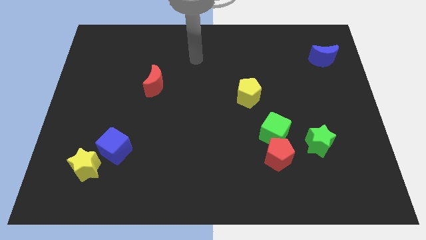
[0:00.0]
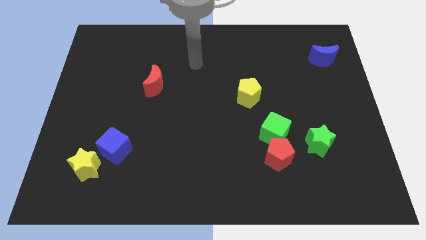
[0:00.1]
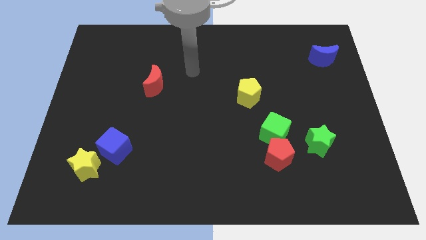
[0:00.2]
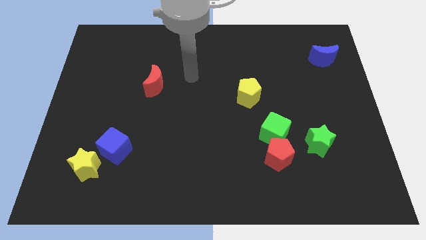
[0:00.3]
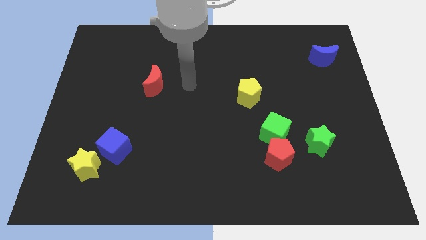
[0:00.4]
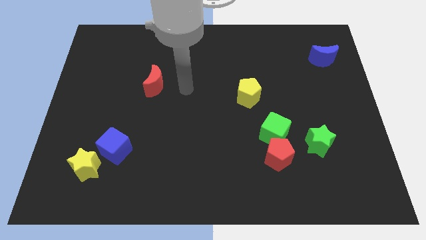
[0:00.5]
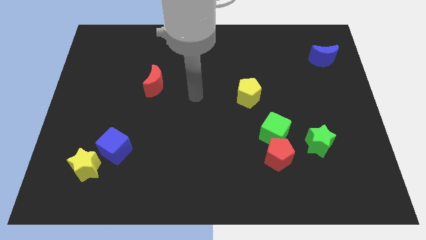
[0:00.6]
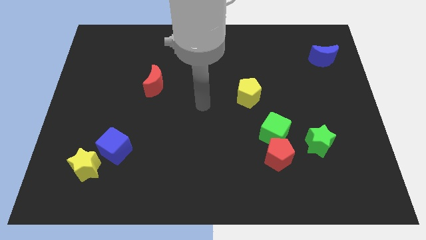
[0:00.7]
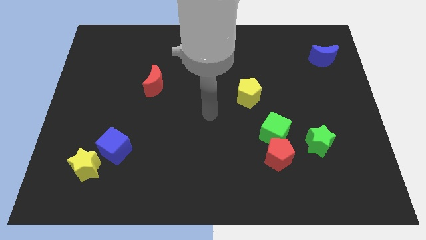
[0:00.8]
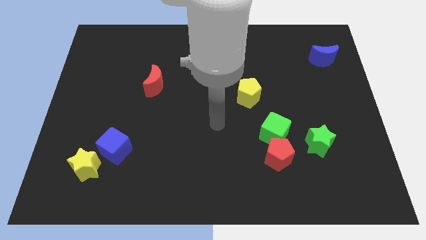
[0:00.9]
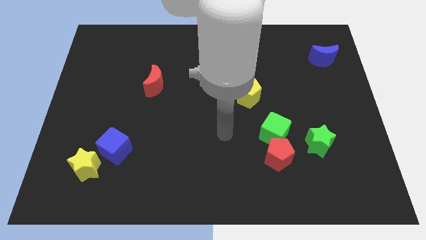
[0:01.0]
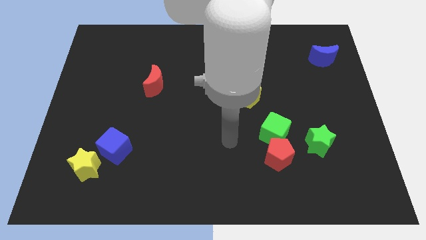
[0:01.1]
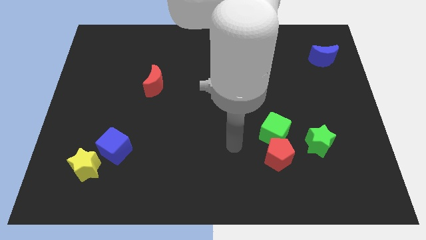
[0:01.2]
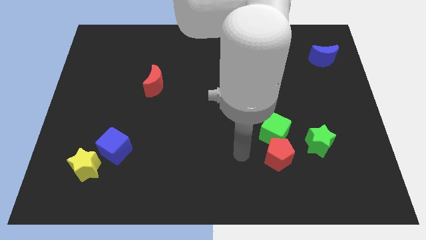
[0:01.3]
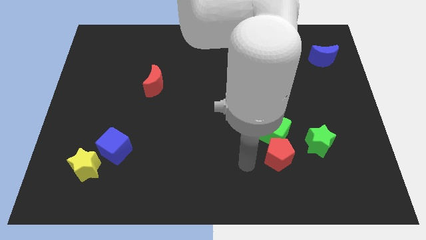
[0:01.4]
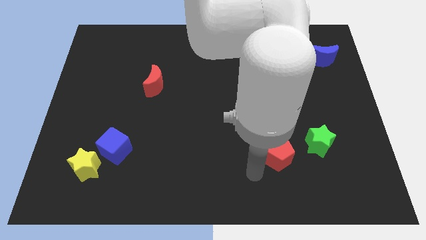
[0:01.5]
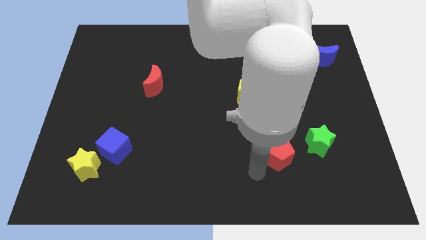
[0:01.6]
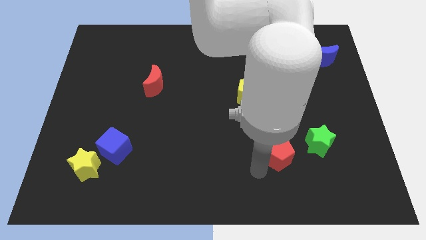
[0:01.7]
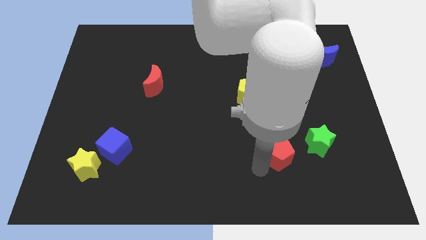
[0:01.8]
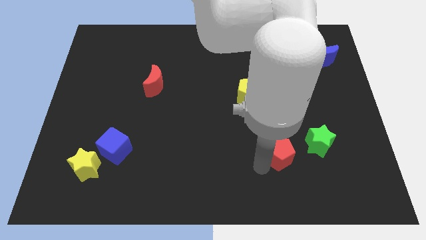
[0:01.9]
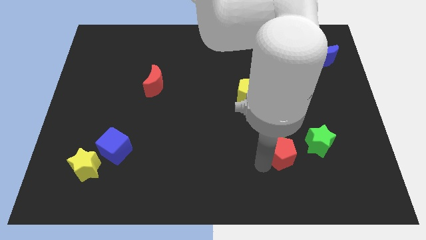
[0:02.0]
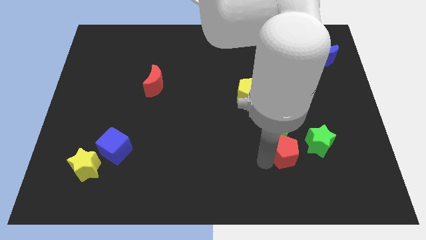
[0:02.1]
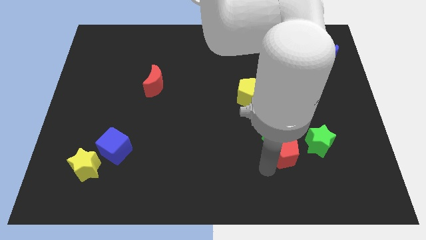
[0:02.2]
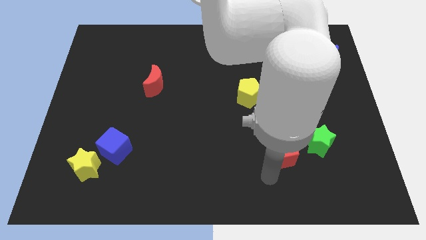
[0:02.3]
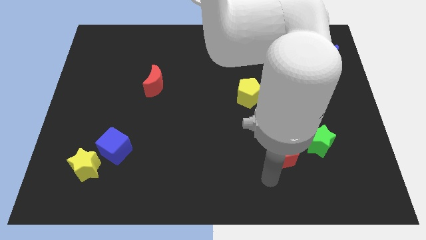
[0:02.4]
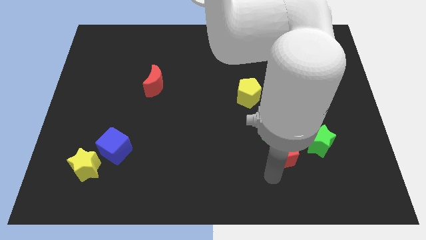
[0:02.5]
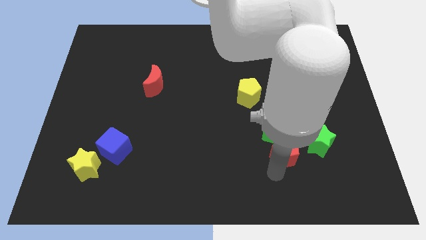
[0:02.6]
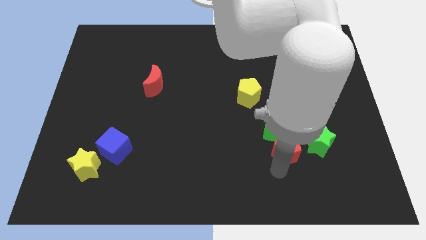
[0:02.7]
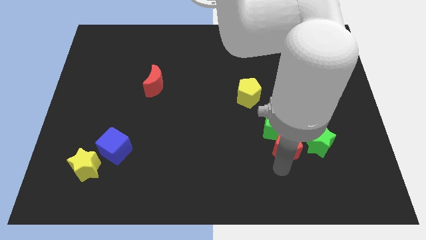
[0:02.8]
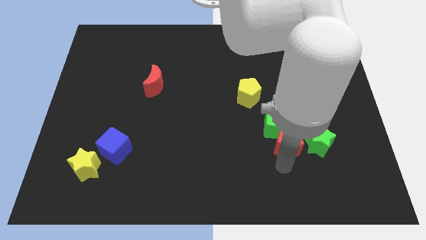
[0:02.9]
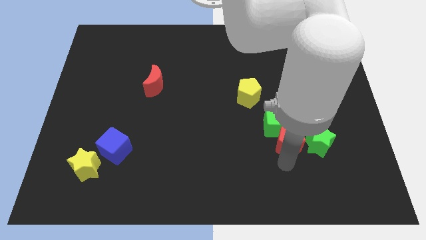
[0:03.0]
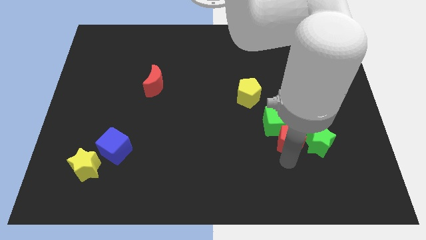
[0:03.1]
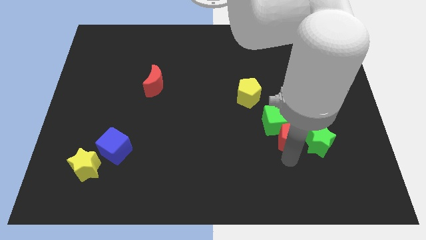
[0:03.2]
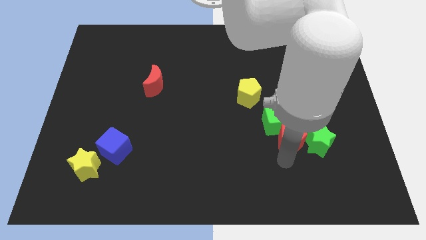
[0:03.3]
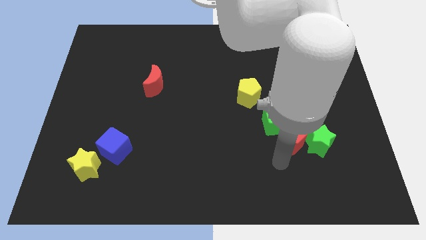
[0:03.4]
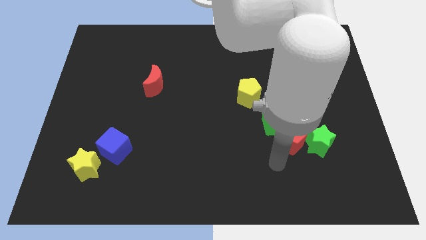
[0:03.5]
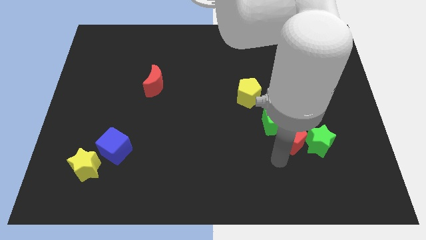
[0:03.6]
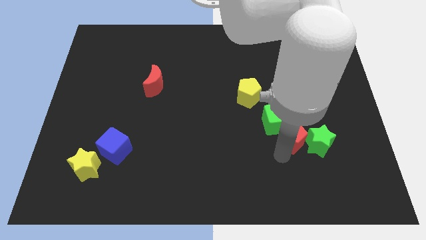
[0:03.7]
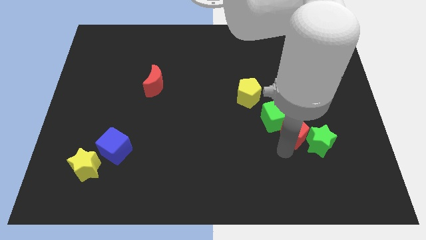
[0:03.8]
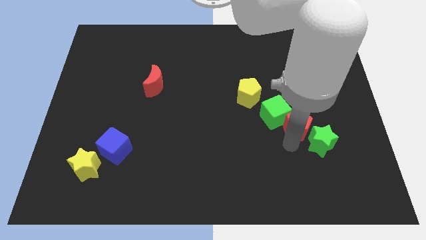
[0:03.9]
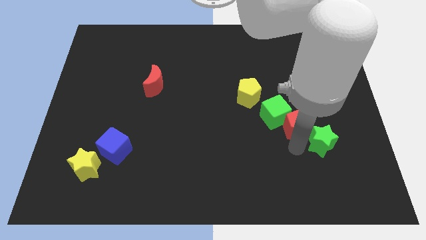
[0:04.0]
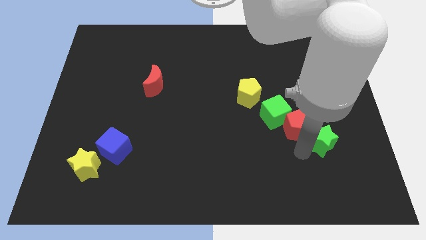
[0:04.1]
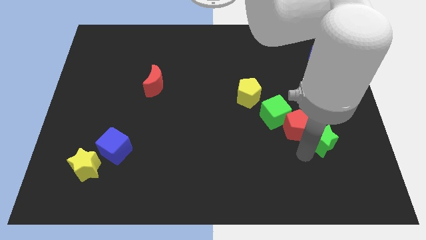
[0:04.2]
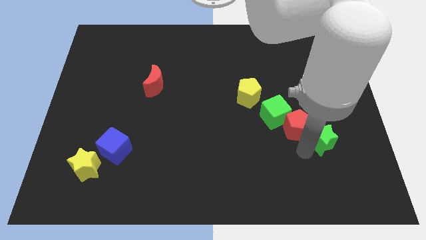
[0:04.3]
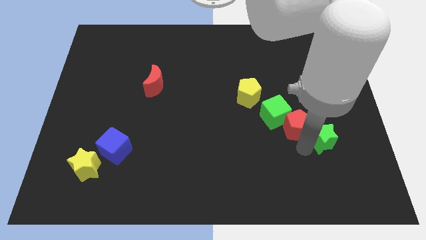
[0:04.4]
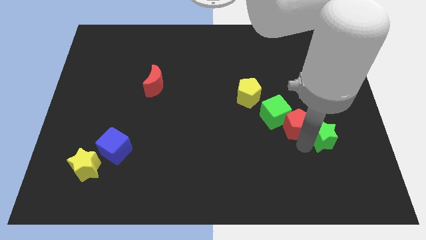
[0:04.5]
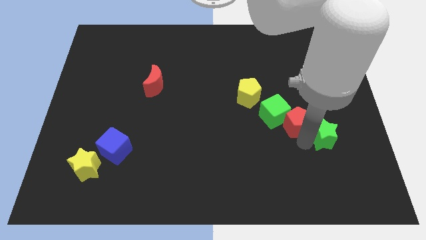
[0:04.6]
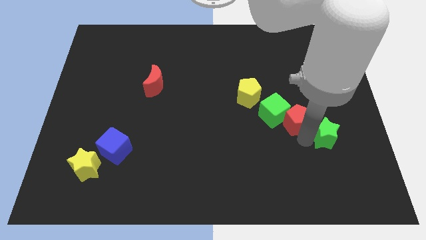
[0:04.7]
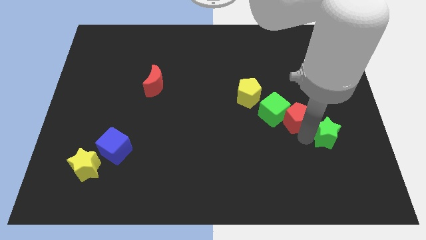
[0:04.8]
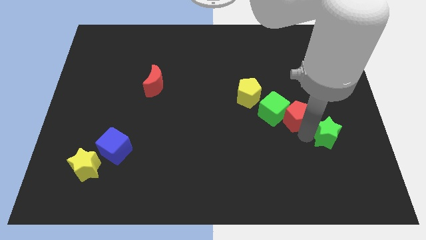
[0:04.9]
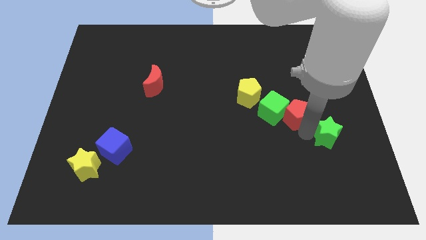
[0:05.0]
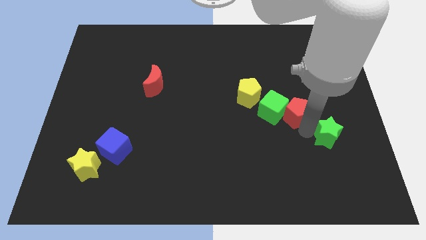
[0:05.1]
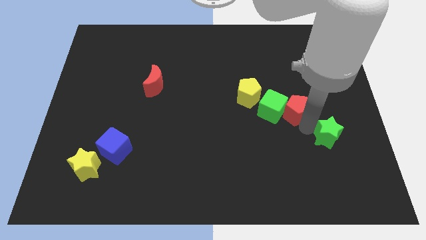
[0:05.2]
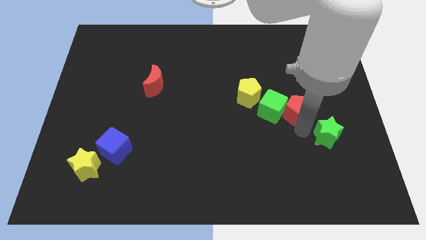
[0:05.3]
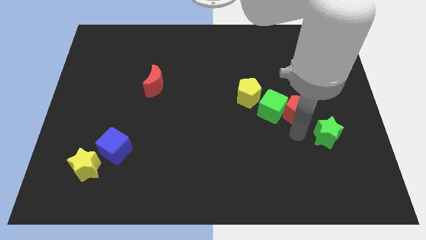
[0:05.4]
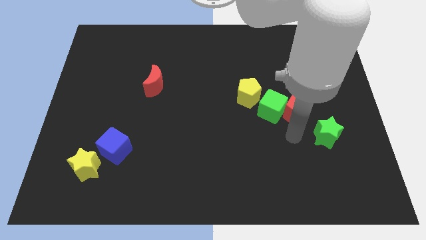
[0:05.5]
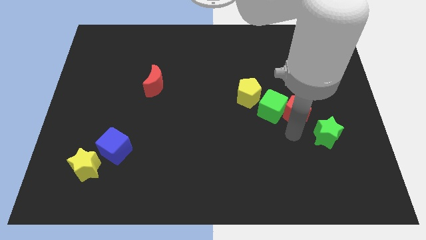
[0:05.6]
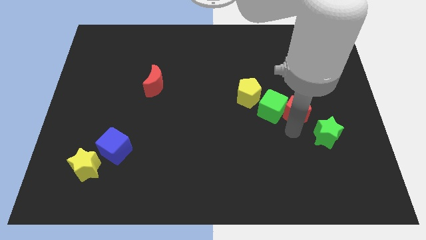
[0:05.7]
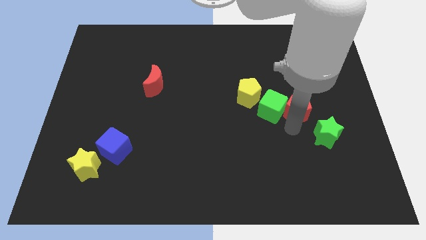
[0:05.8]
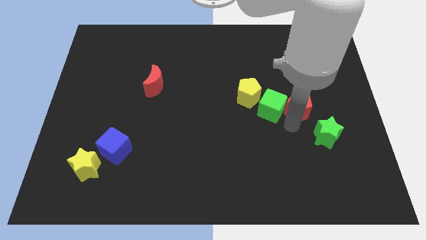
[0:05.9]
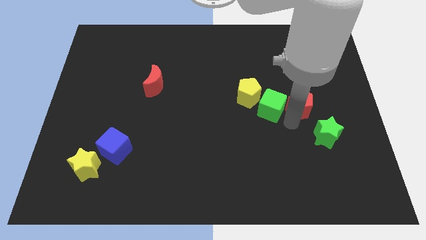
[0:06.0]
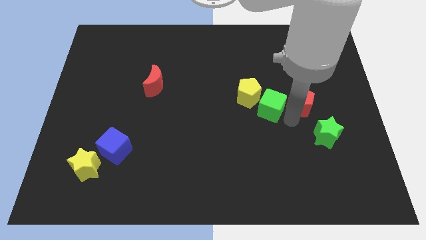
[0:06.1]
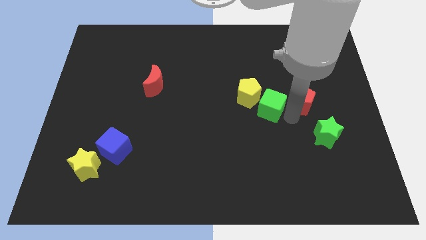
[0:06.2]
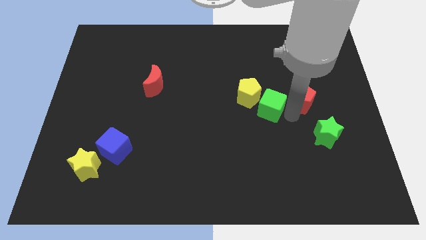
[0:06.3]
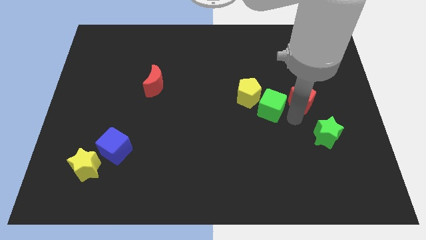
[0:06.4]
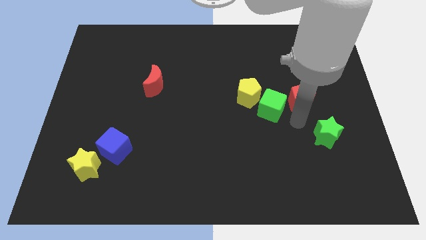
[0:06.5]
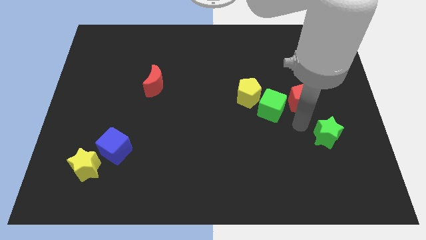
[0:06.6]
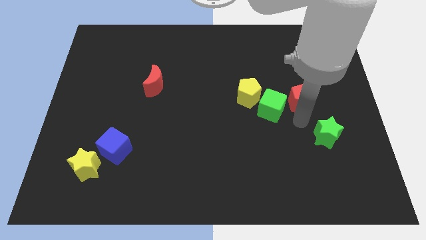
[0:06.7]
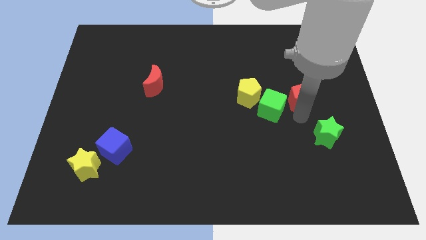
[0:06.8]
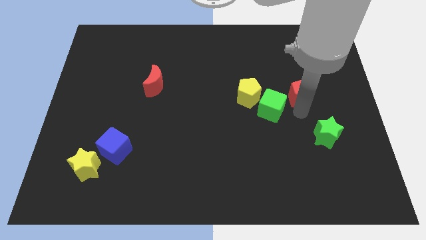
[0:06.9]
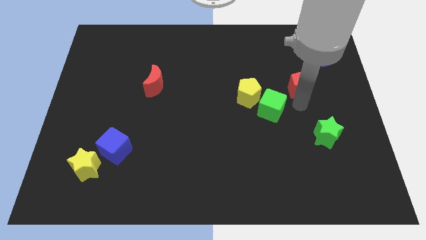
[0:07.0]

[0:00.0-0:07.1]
put the red pentagon to the bottom left of the blue moon

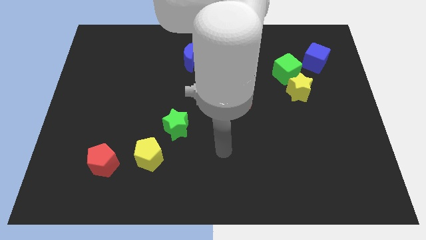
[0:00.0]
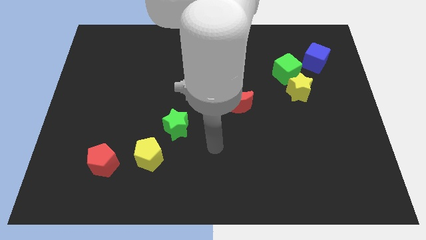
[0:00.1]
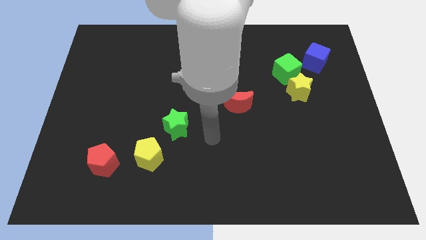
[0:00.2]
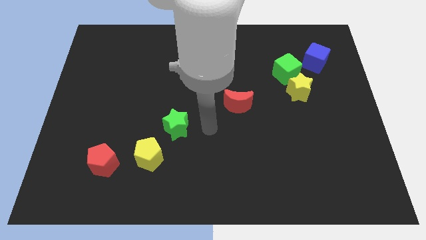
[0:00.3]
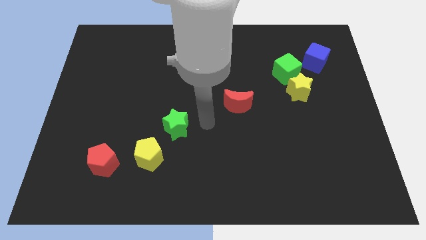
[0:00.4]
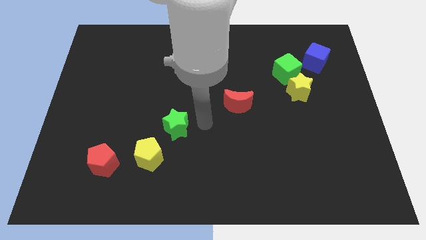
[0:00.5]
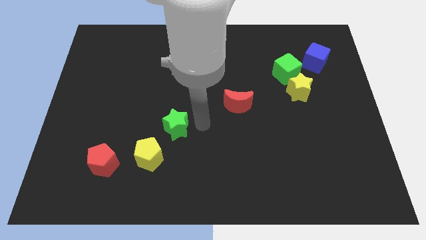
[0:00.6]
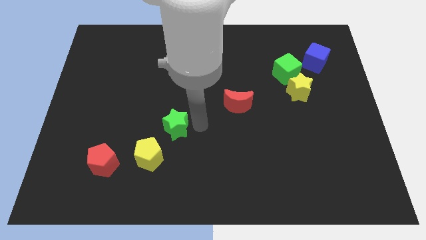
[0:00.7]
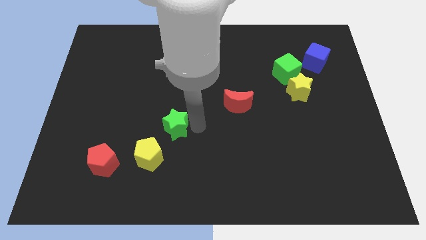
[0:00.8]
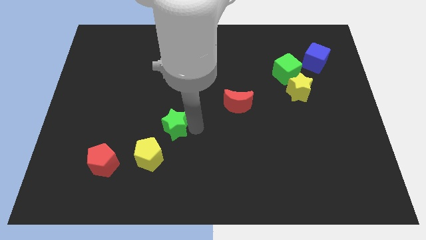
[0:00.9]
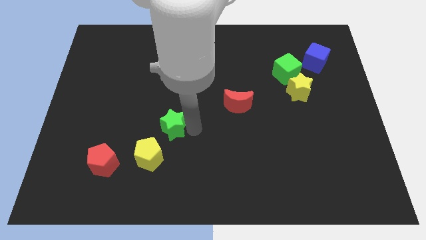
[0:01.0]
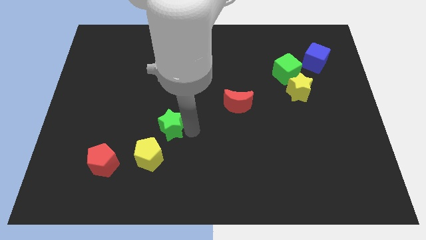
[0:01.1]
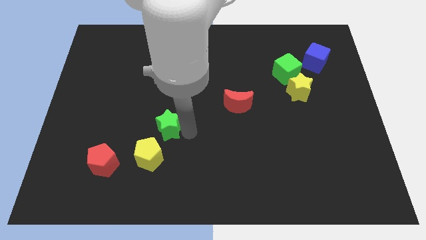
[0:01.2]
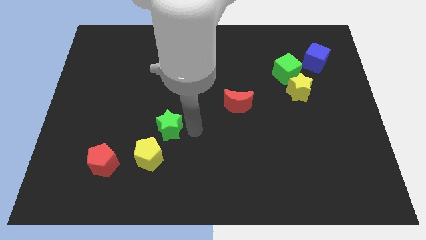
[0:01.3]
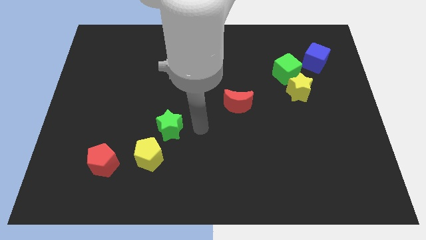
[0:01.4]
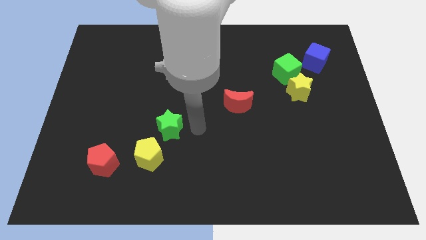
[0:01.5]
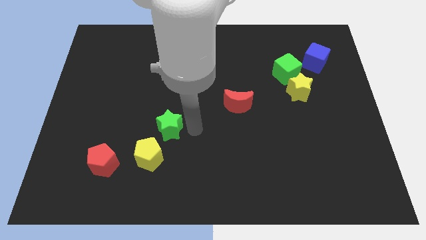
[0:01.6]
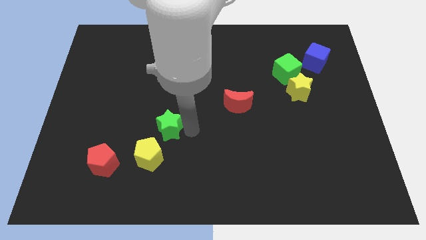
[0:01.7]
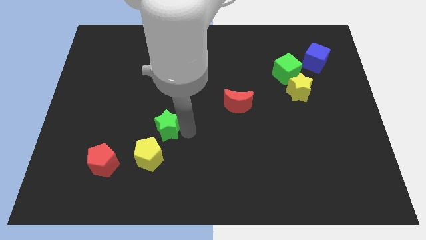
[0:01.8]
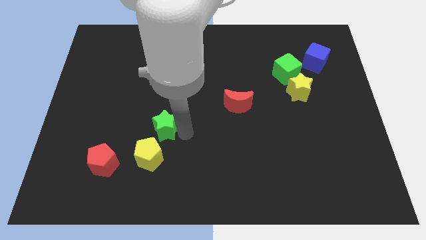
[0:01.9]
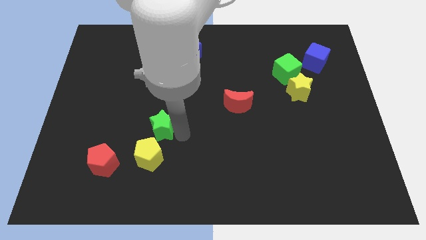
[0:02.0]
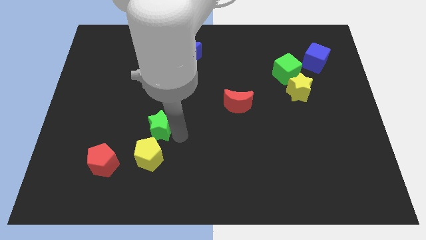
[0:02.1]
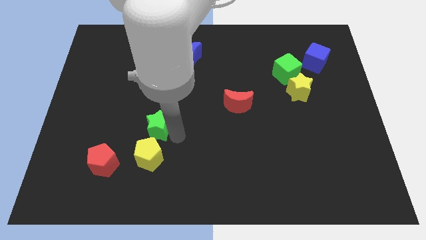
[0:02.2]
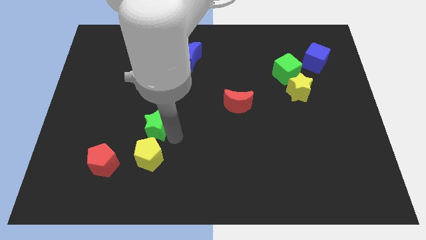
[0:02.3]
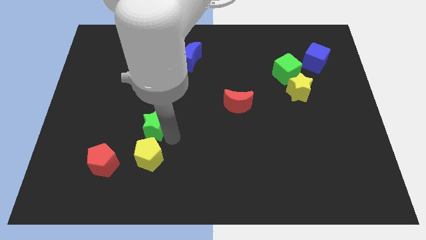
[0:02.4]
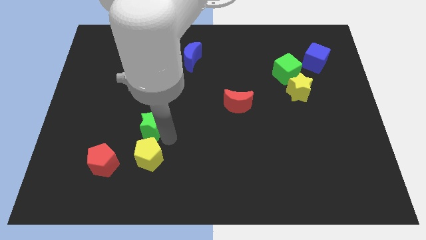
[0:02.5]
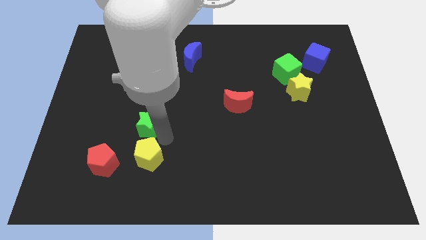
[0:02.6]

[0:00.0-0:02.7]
slide the green star diagonally up and to the left of the yellow pentagon
